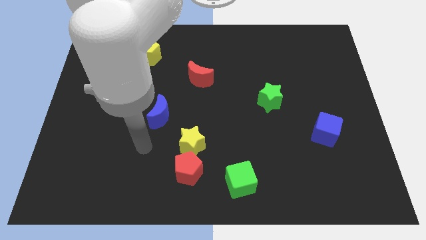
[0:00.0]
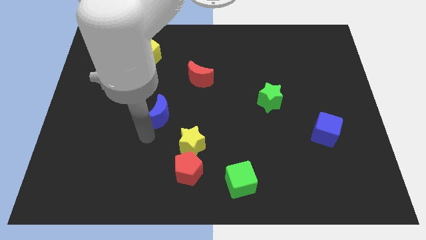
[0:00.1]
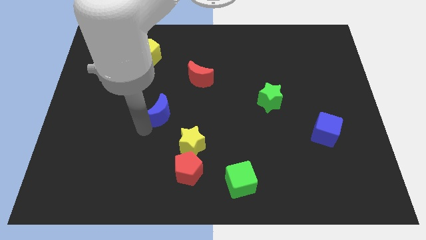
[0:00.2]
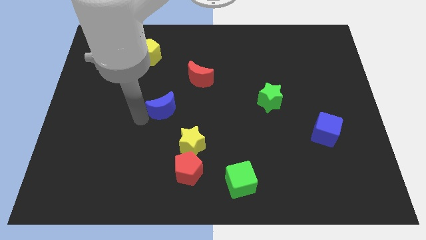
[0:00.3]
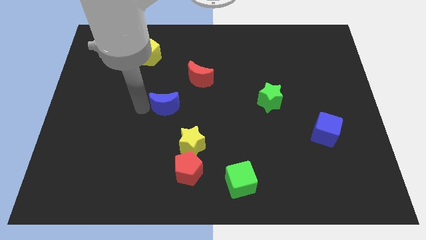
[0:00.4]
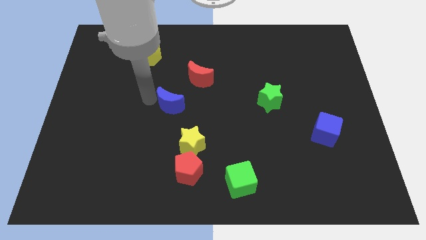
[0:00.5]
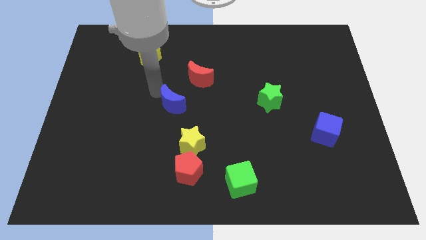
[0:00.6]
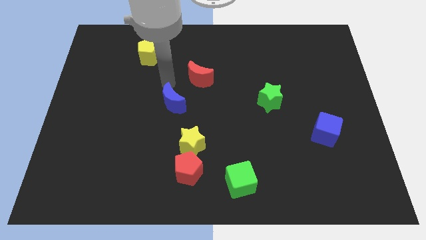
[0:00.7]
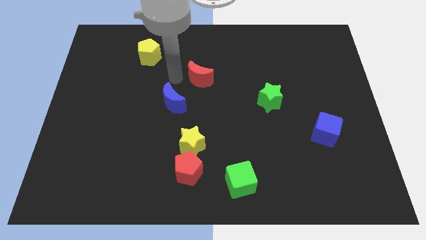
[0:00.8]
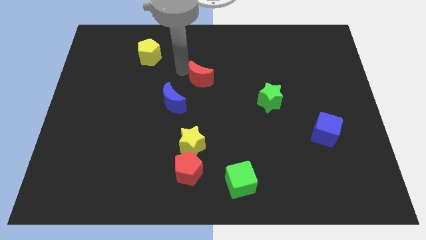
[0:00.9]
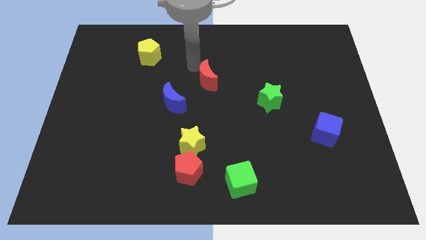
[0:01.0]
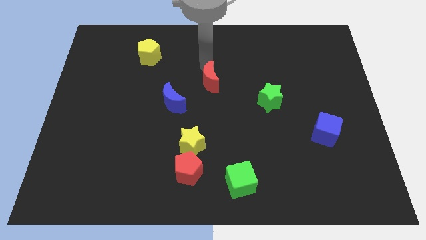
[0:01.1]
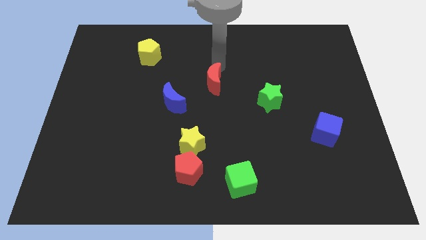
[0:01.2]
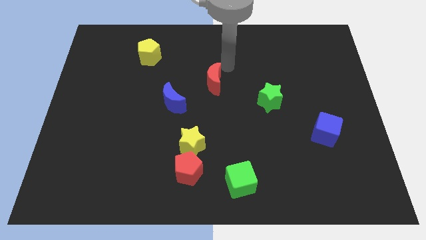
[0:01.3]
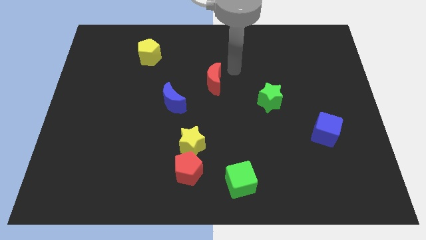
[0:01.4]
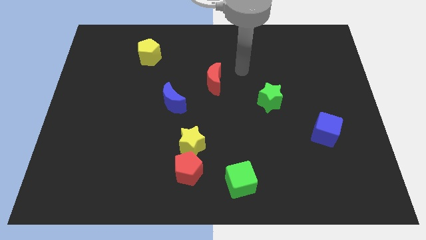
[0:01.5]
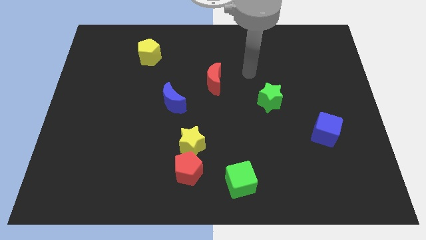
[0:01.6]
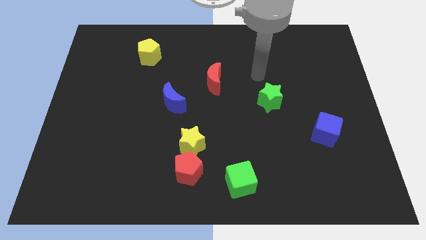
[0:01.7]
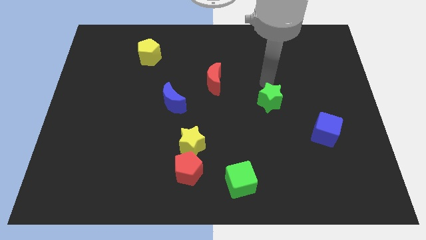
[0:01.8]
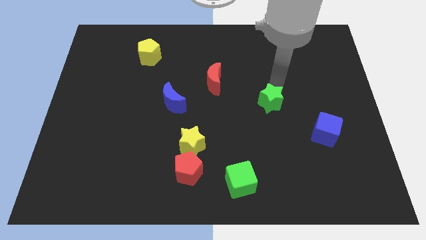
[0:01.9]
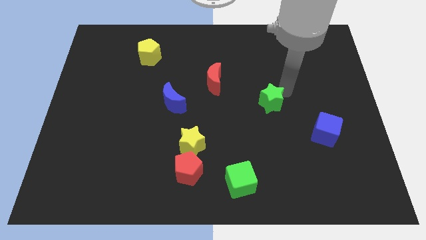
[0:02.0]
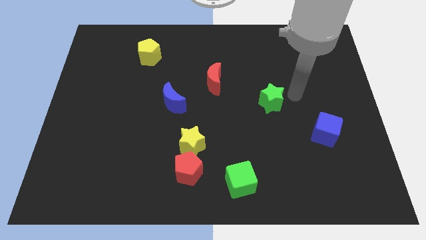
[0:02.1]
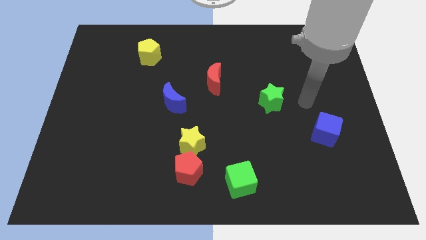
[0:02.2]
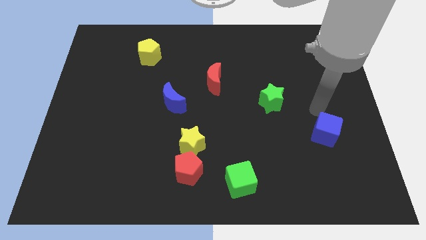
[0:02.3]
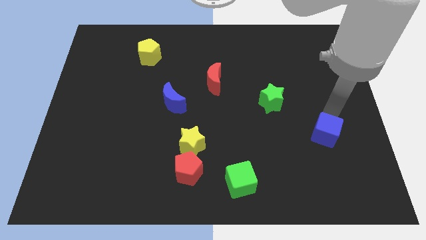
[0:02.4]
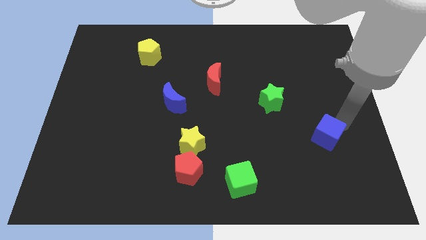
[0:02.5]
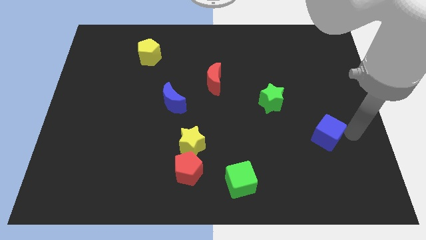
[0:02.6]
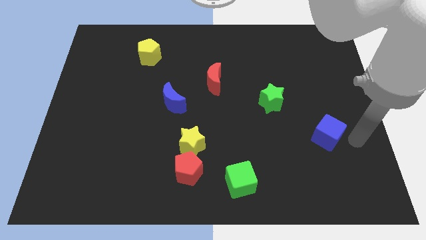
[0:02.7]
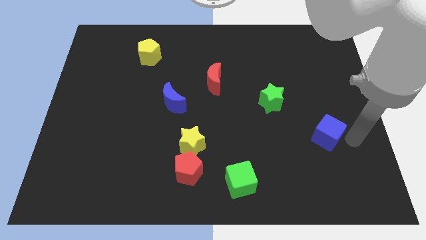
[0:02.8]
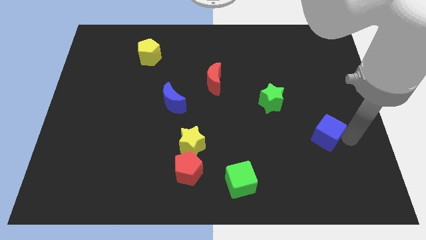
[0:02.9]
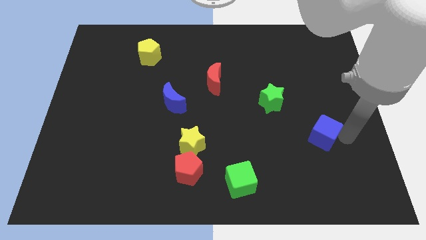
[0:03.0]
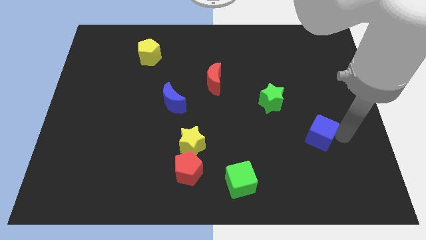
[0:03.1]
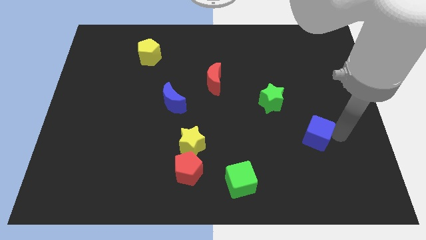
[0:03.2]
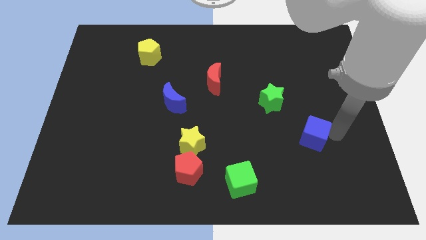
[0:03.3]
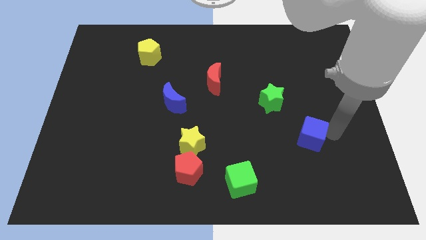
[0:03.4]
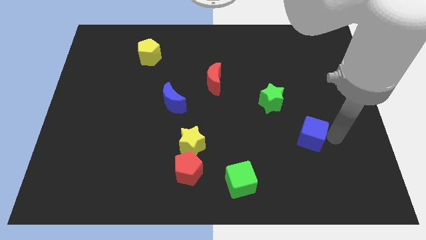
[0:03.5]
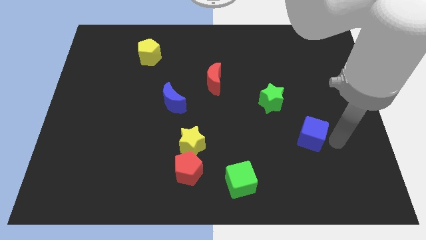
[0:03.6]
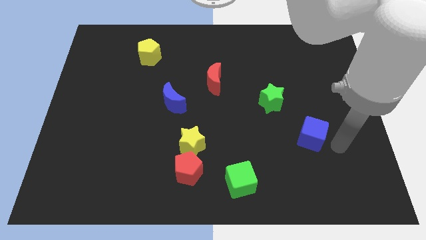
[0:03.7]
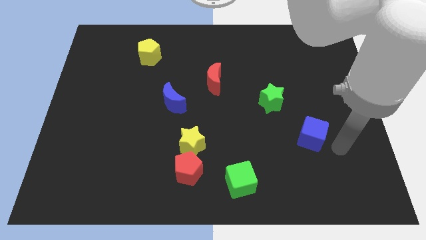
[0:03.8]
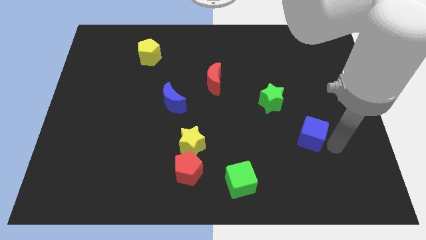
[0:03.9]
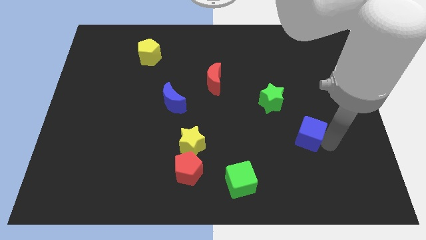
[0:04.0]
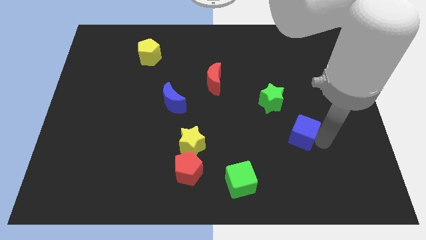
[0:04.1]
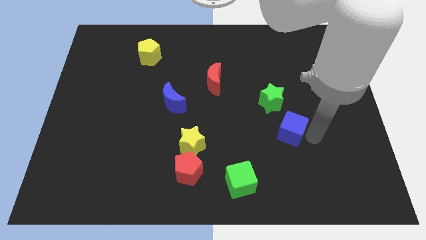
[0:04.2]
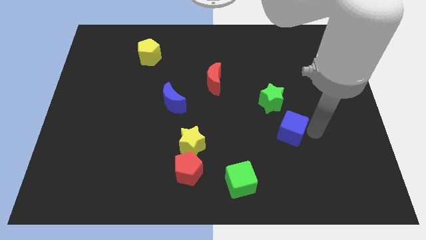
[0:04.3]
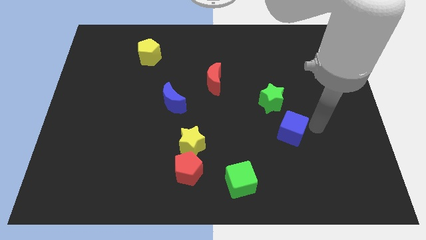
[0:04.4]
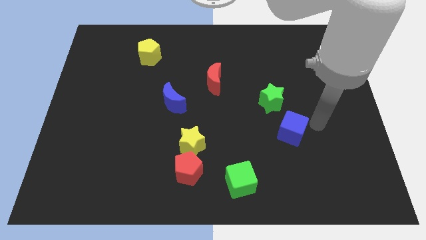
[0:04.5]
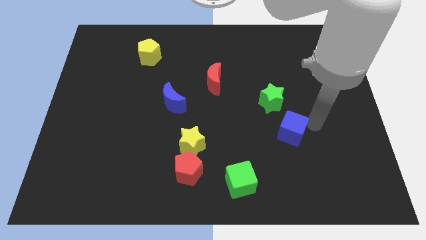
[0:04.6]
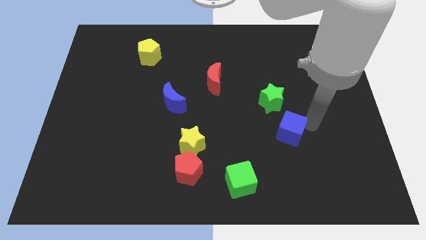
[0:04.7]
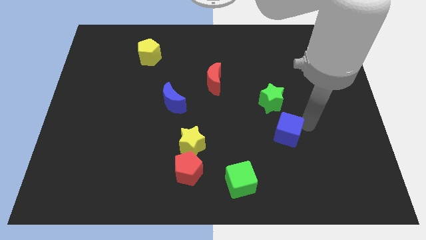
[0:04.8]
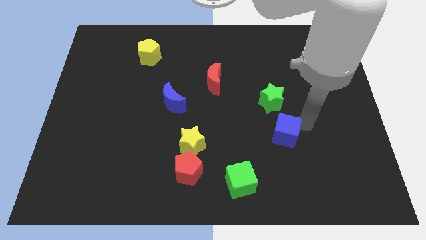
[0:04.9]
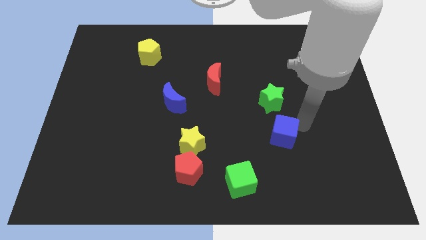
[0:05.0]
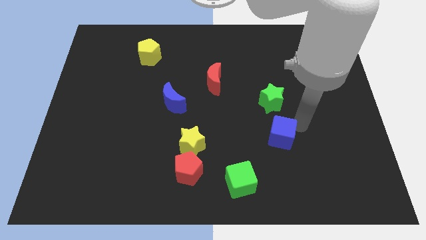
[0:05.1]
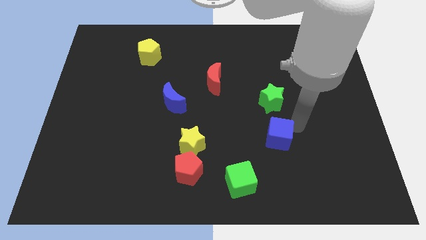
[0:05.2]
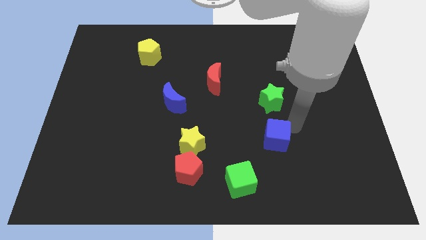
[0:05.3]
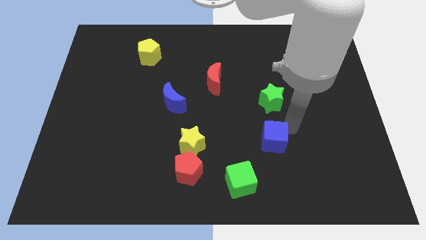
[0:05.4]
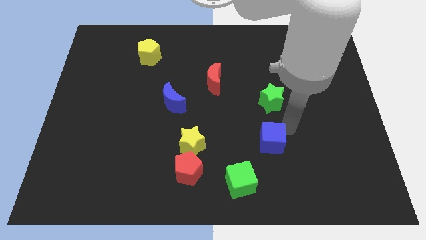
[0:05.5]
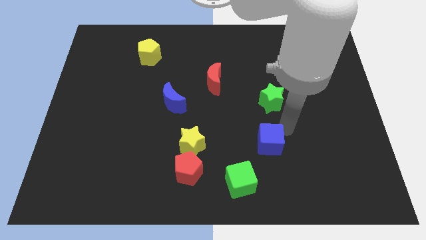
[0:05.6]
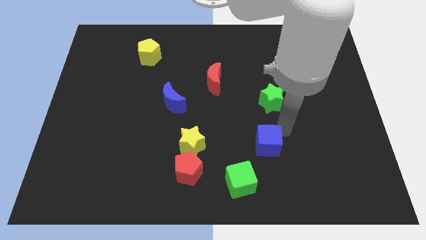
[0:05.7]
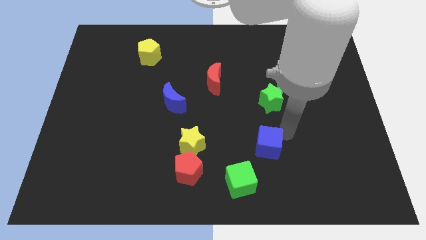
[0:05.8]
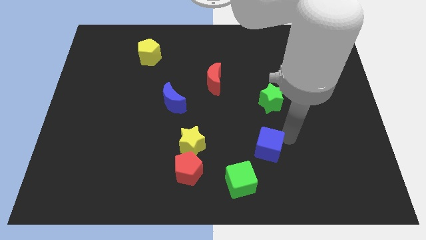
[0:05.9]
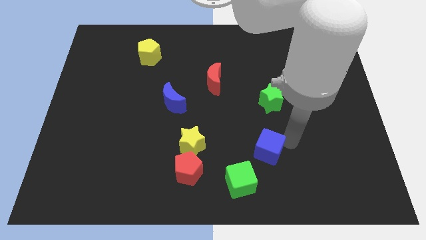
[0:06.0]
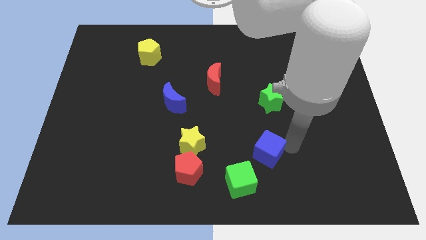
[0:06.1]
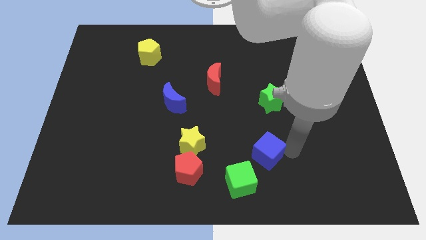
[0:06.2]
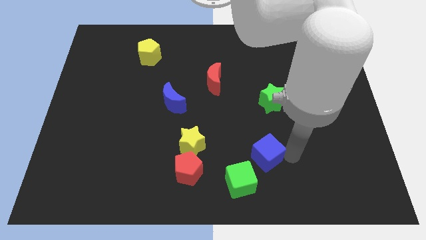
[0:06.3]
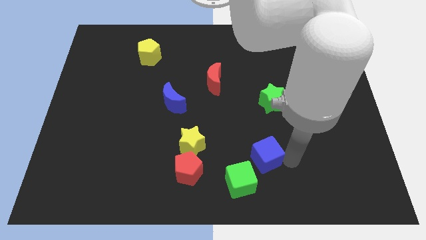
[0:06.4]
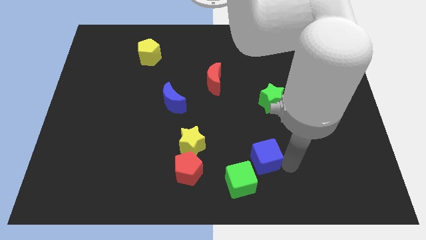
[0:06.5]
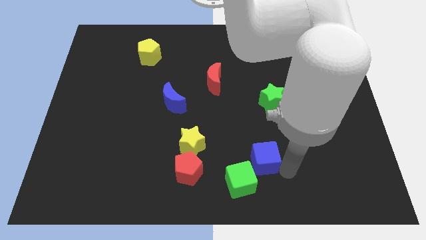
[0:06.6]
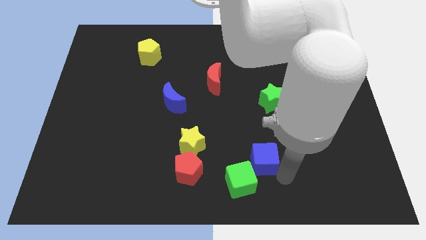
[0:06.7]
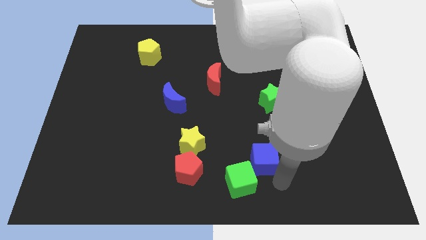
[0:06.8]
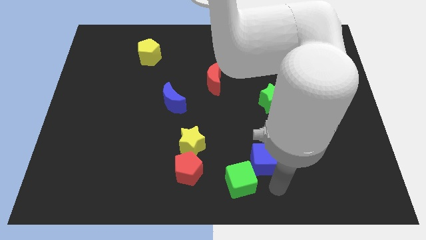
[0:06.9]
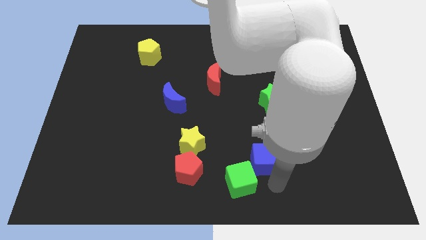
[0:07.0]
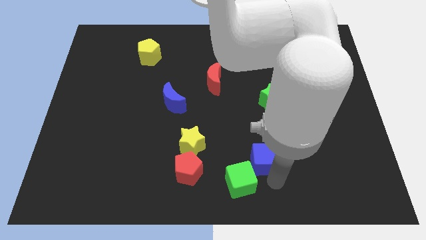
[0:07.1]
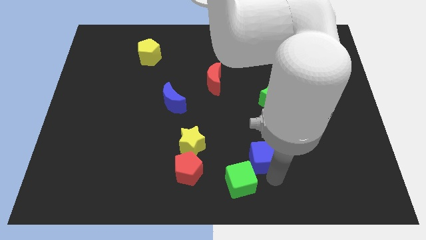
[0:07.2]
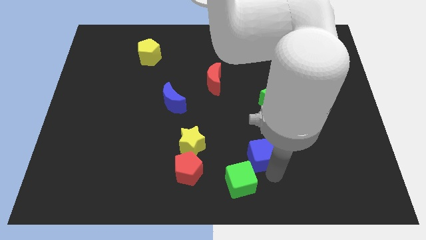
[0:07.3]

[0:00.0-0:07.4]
move the blue cube just right of the yellow star
